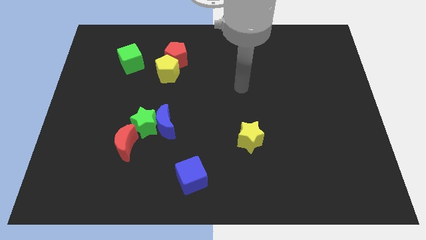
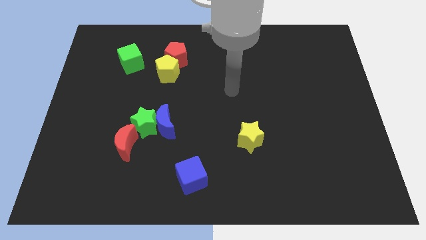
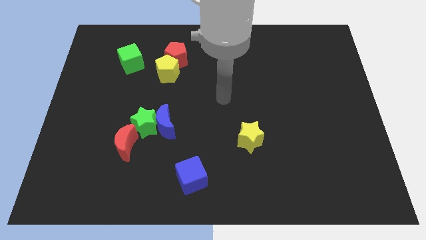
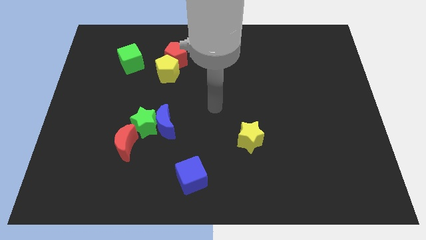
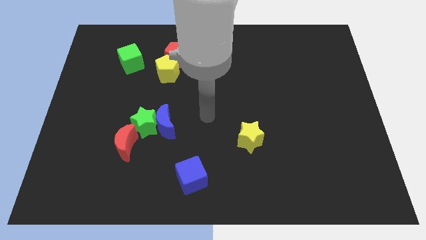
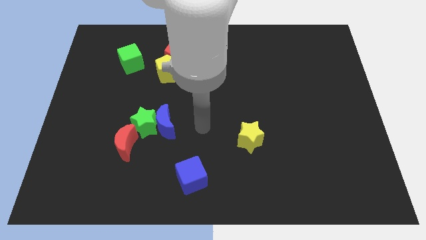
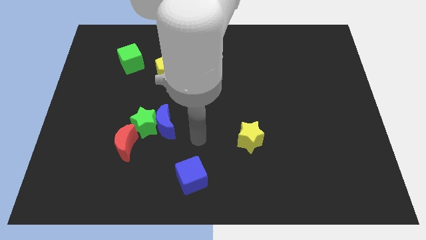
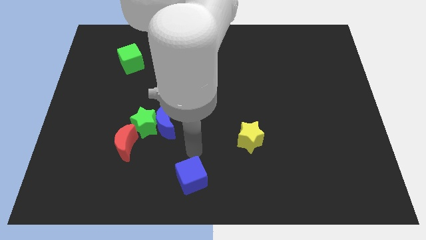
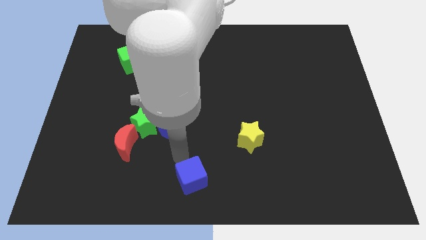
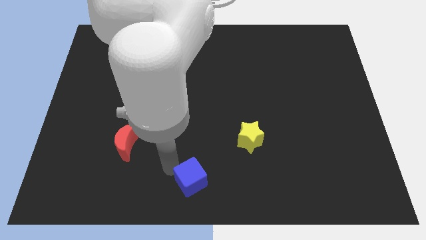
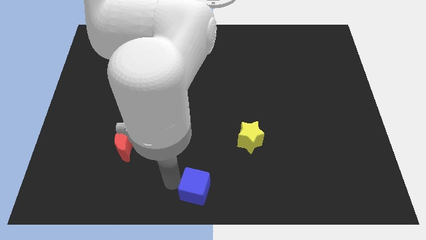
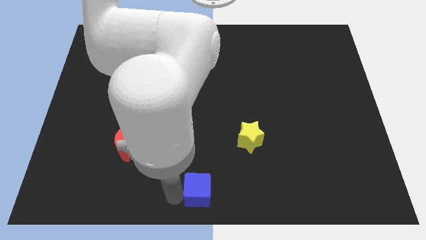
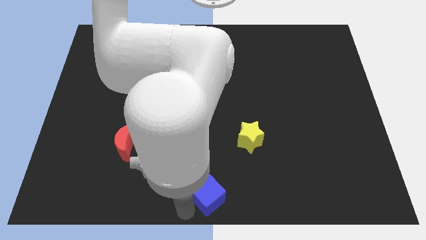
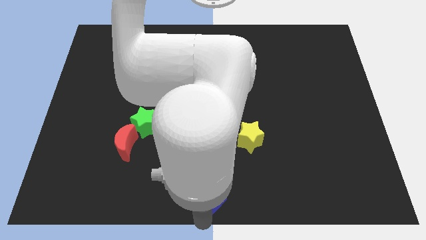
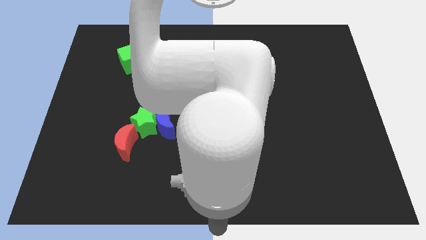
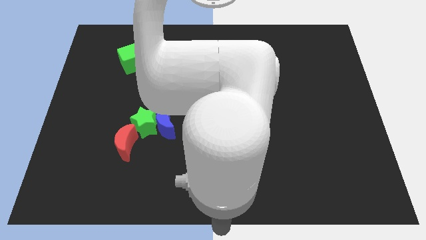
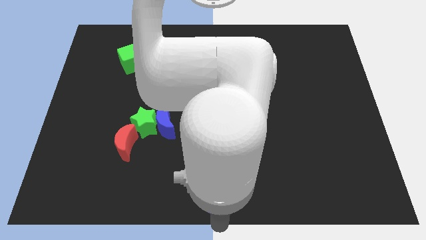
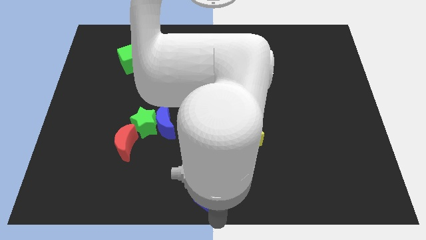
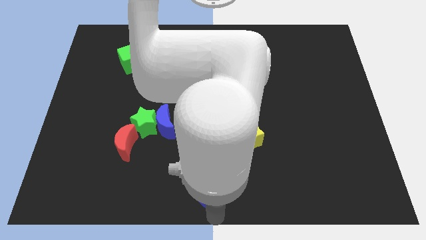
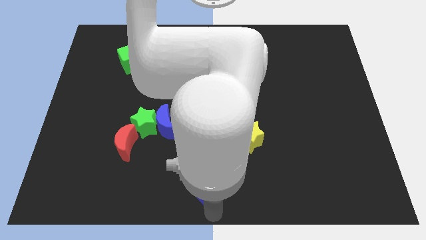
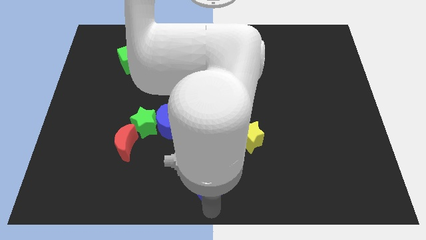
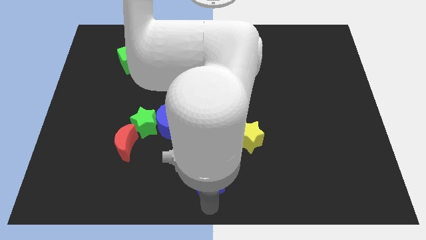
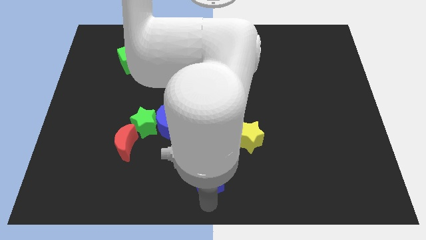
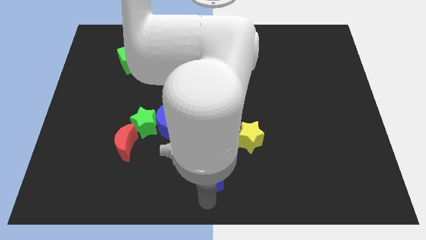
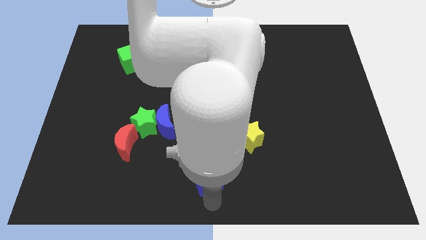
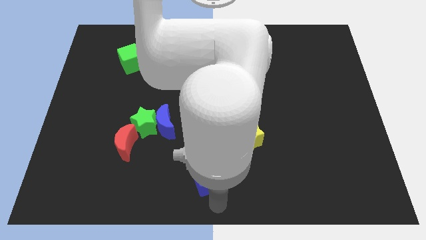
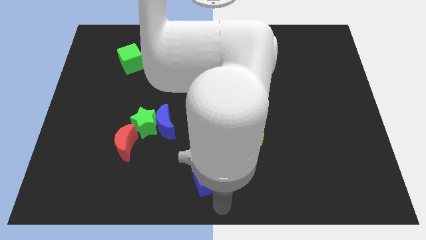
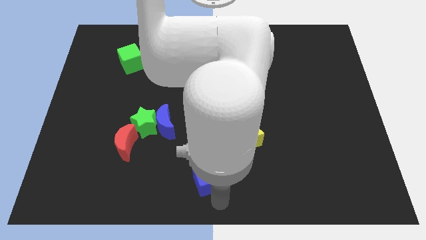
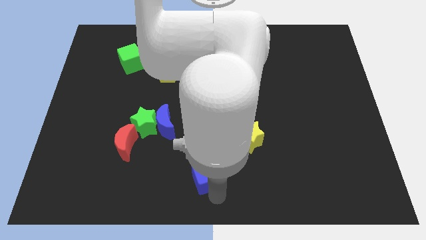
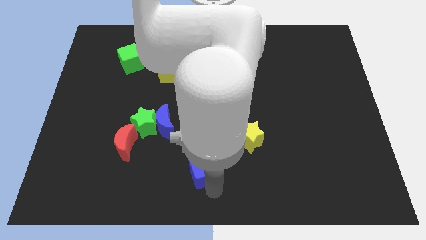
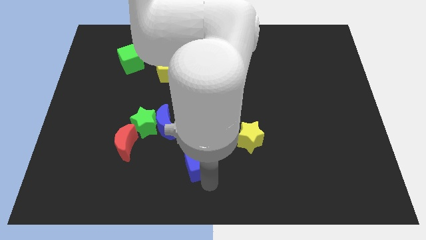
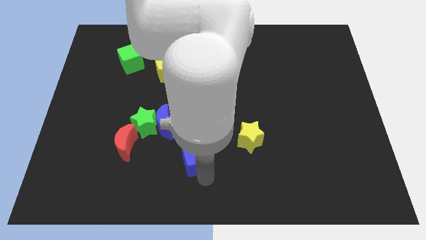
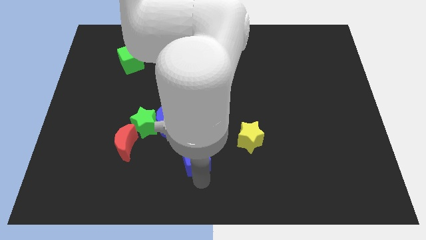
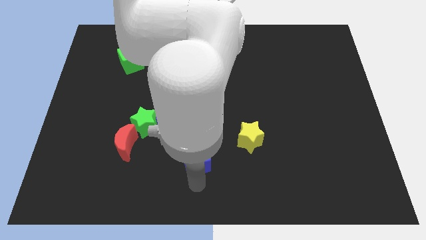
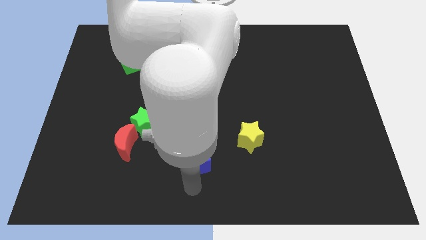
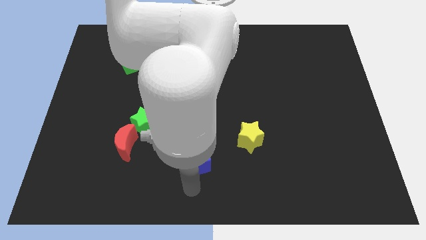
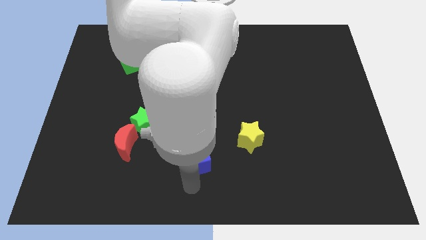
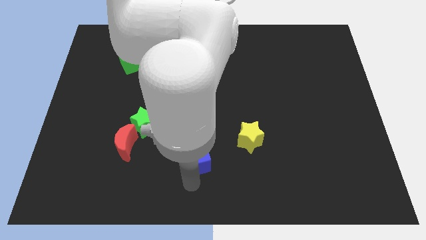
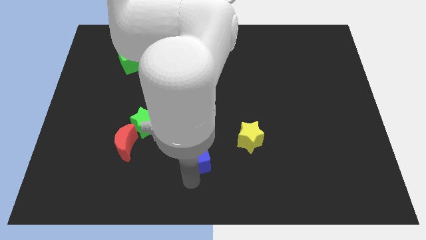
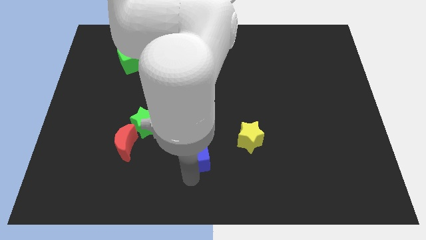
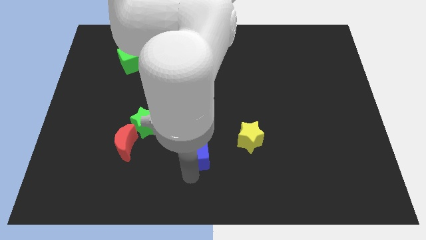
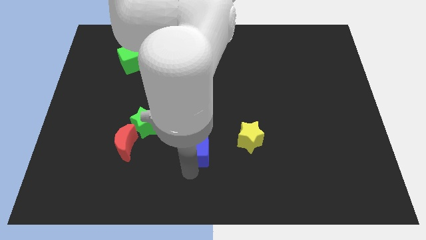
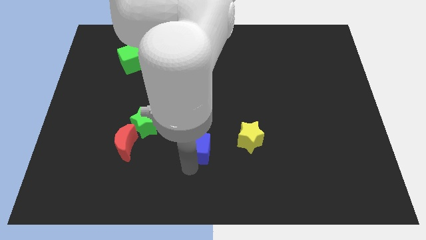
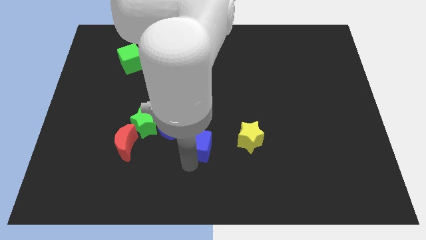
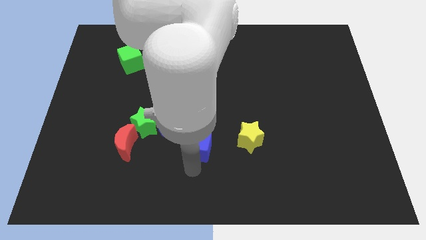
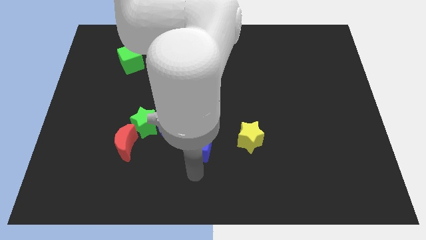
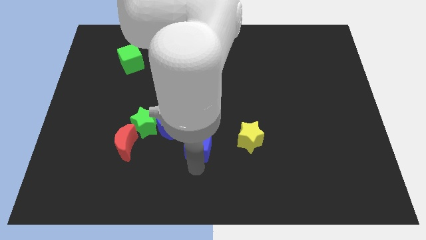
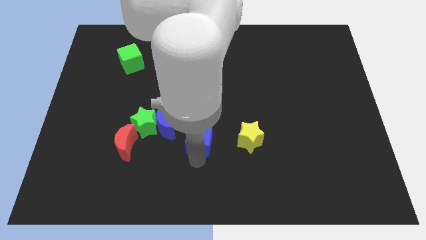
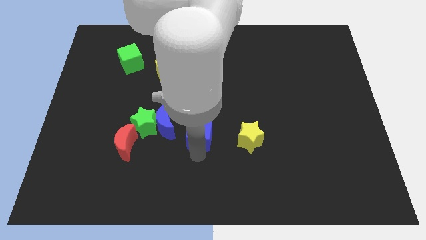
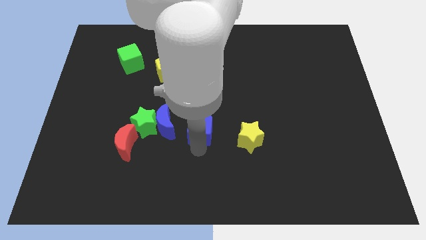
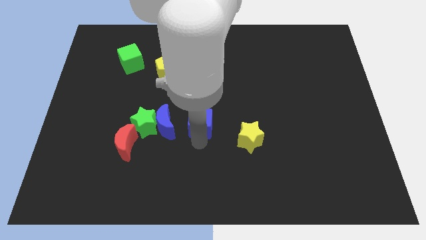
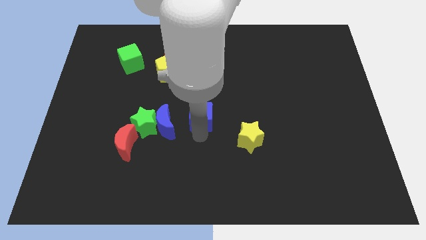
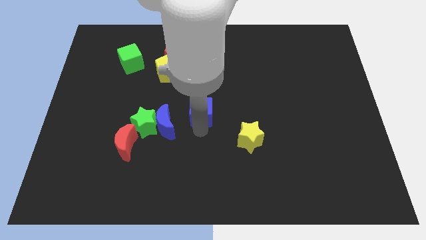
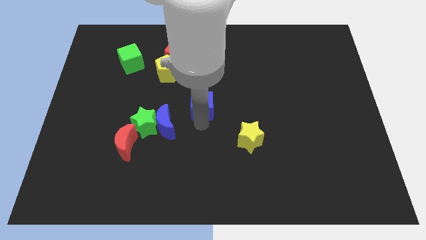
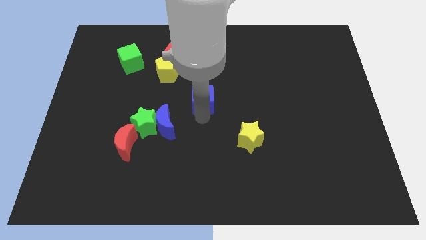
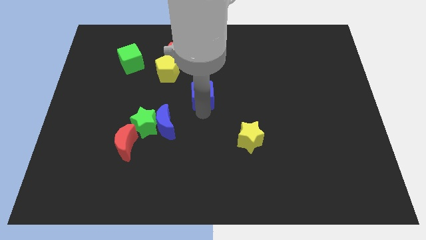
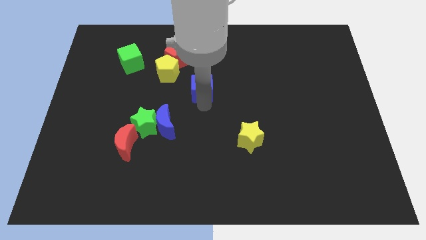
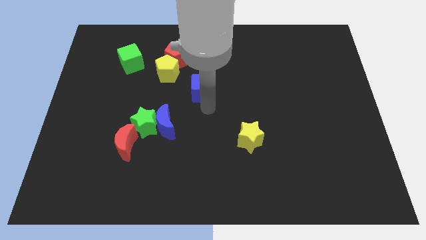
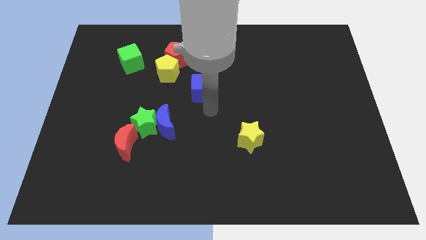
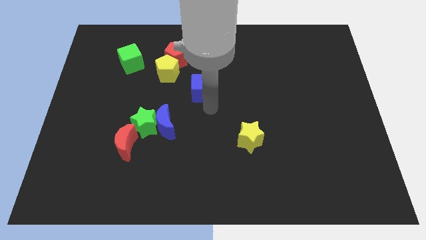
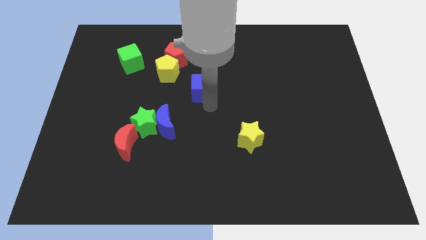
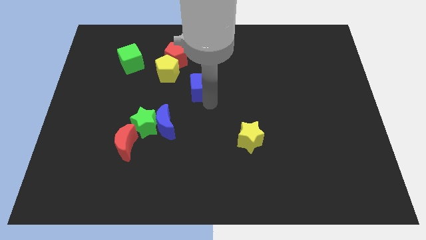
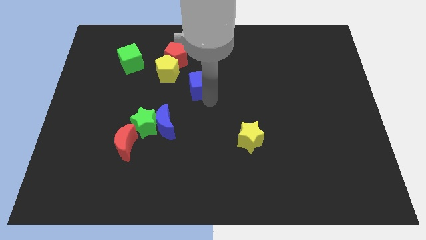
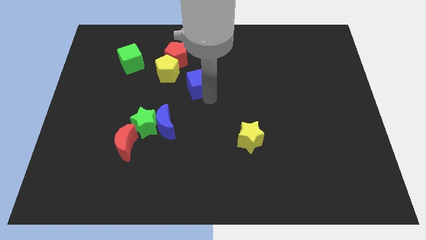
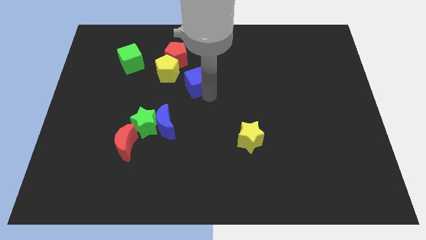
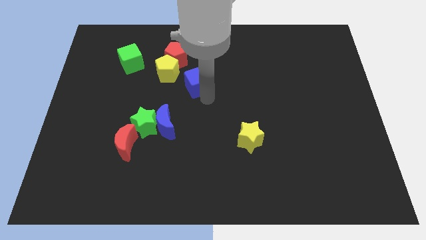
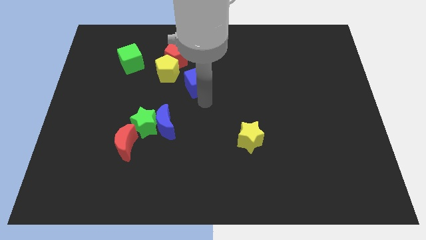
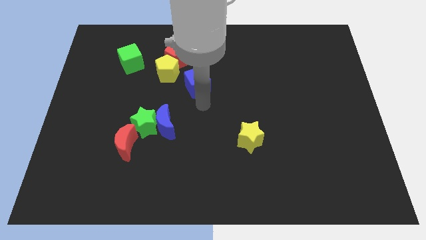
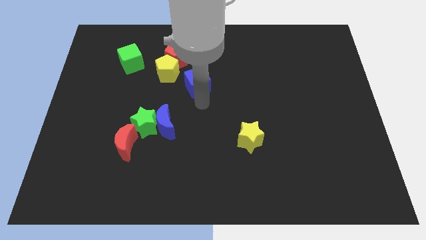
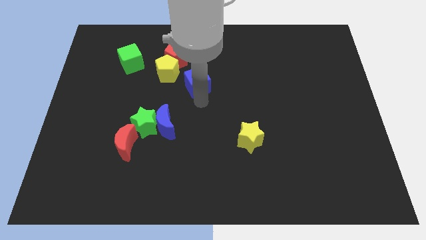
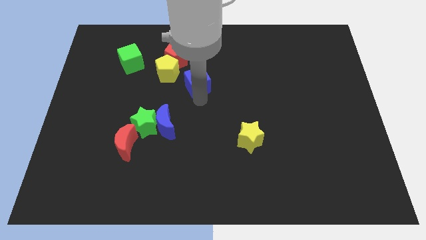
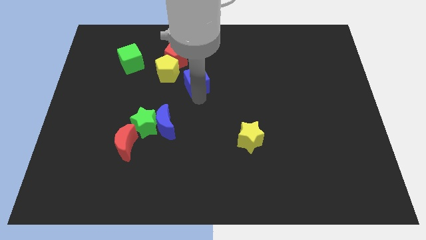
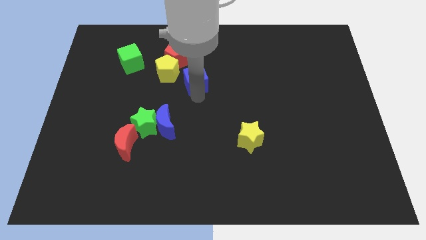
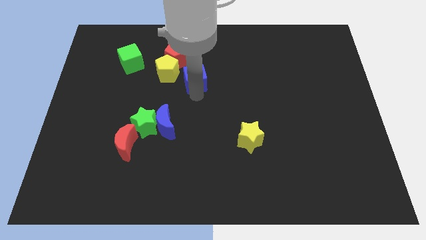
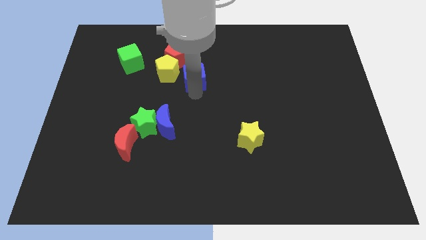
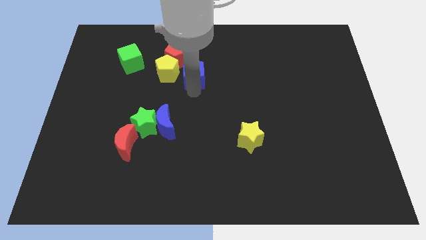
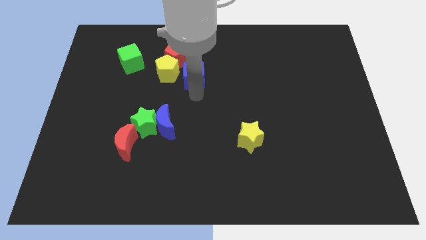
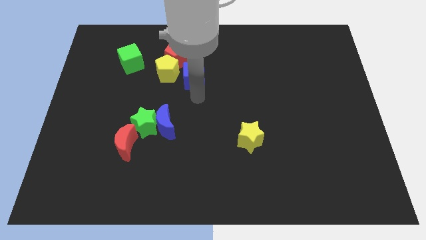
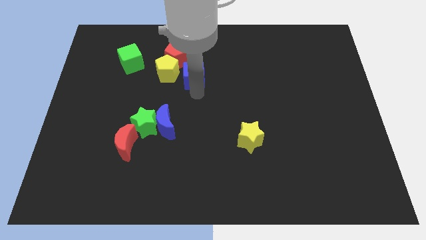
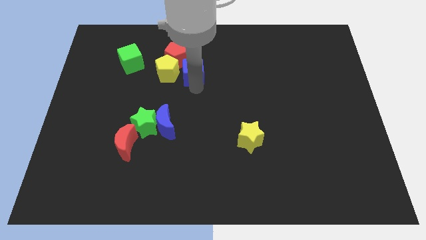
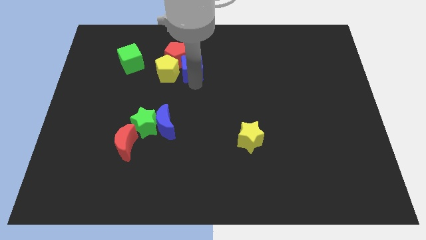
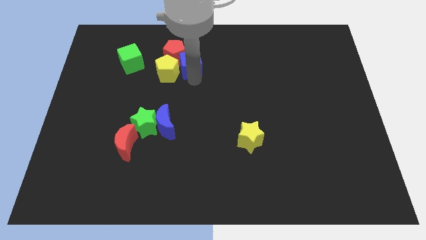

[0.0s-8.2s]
slide the blue cube to the right side of the green cube
